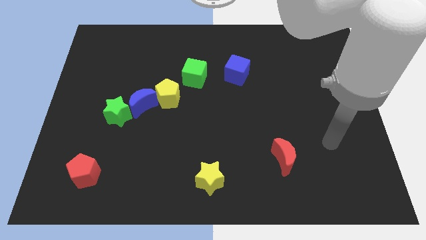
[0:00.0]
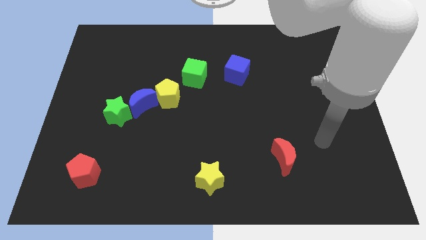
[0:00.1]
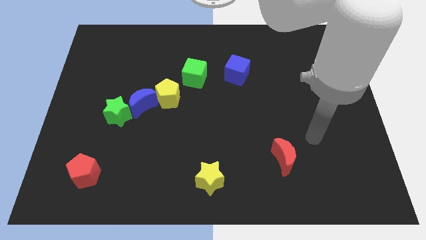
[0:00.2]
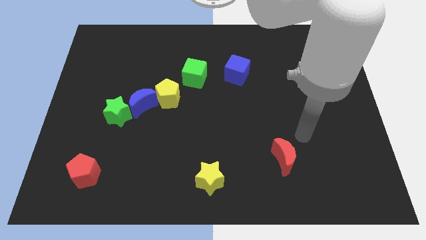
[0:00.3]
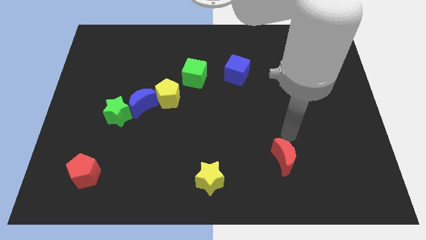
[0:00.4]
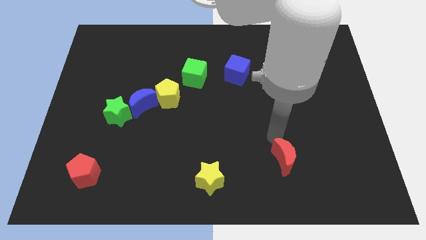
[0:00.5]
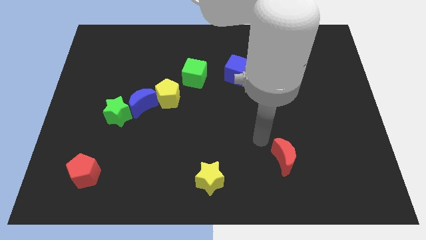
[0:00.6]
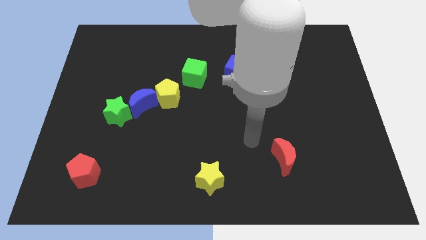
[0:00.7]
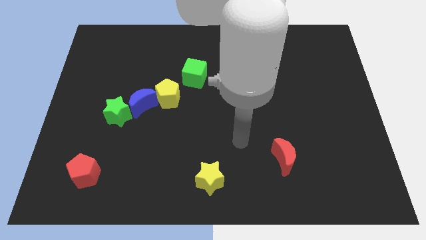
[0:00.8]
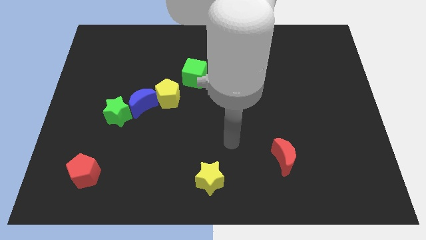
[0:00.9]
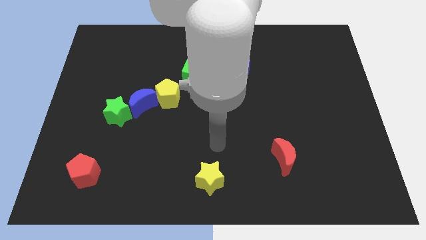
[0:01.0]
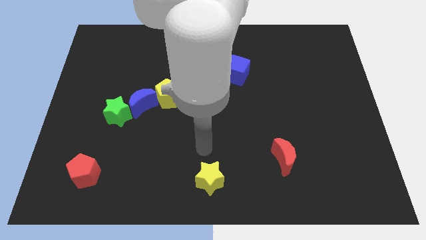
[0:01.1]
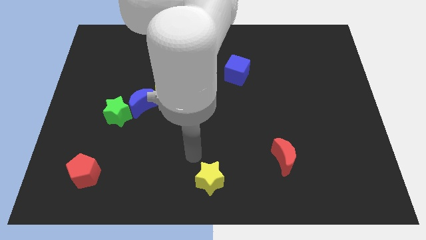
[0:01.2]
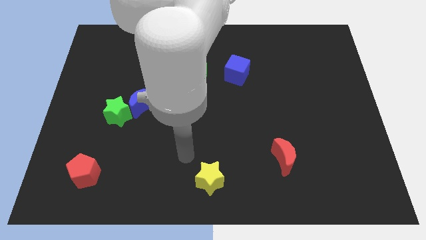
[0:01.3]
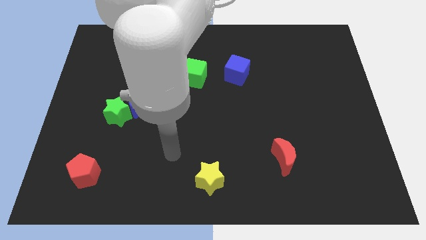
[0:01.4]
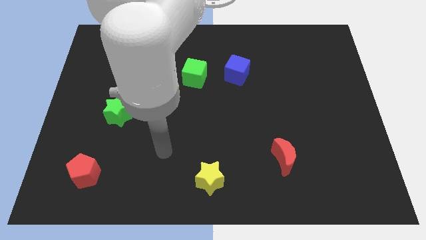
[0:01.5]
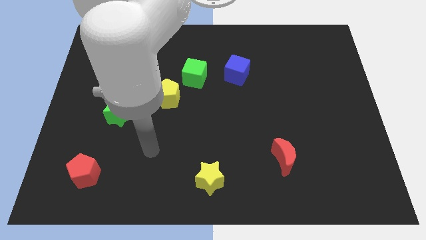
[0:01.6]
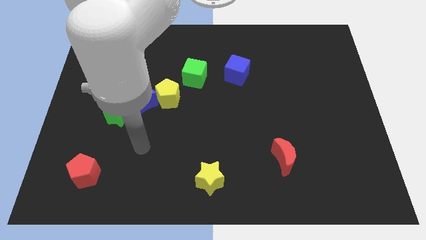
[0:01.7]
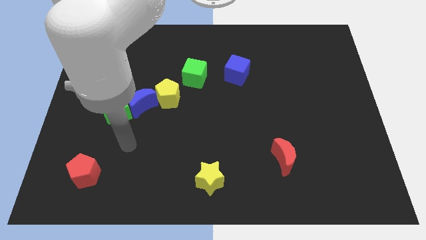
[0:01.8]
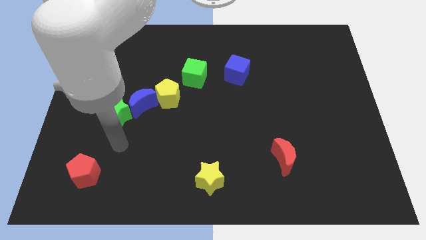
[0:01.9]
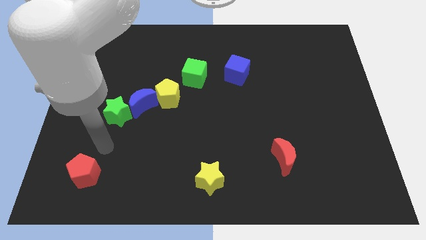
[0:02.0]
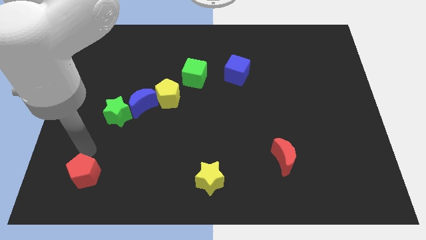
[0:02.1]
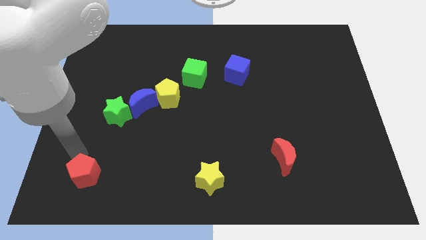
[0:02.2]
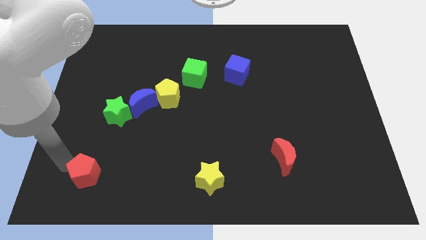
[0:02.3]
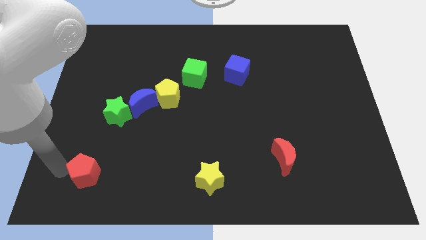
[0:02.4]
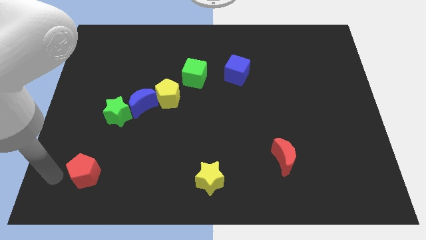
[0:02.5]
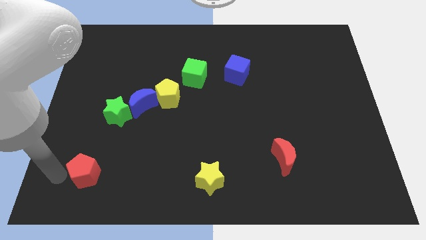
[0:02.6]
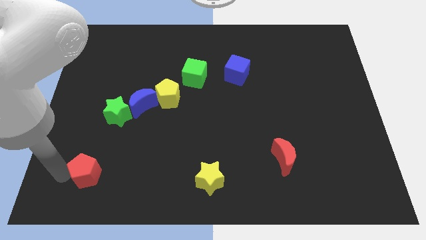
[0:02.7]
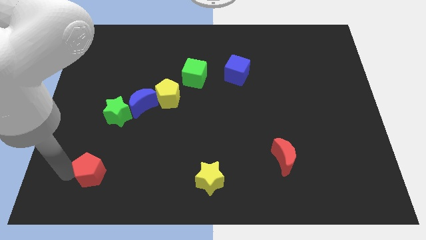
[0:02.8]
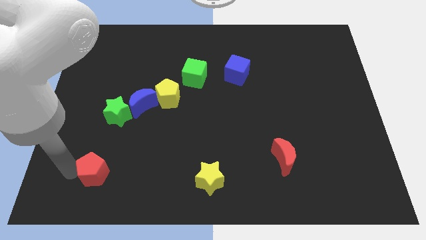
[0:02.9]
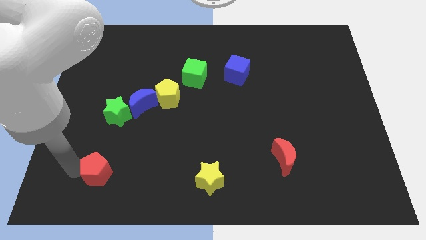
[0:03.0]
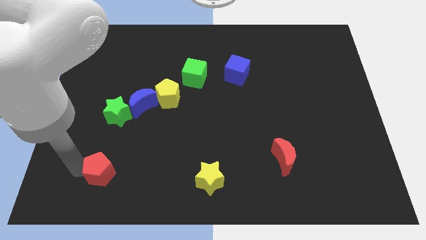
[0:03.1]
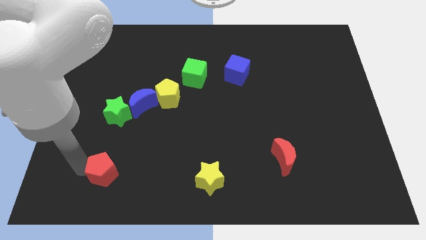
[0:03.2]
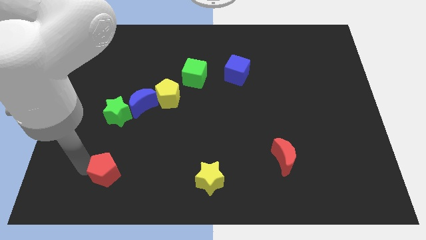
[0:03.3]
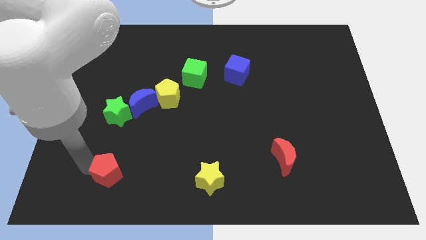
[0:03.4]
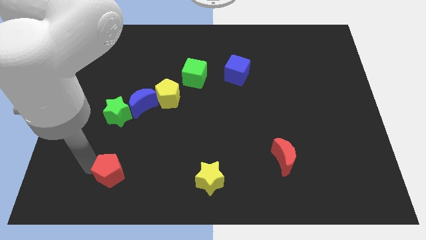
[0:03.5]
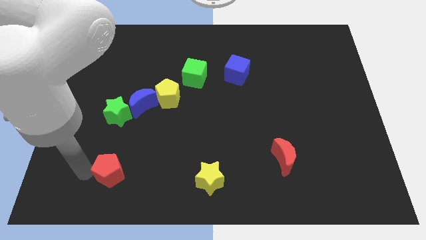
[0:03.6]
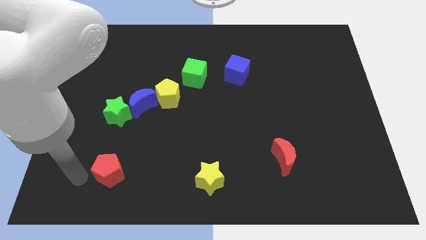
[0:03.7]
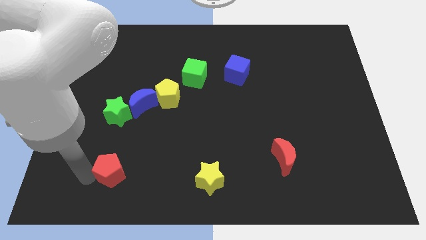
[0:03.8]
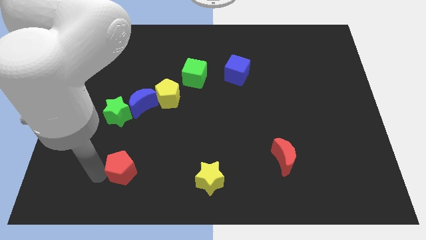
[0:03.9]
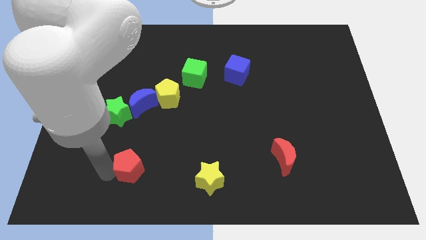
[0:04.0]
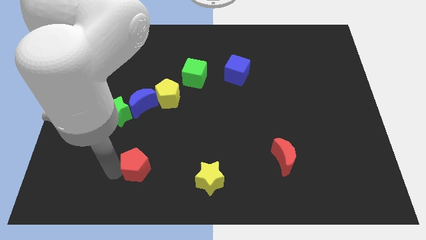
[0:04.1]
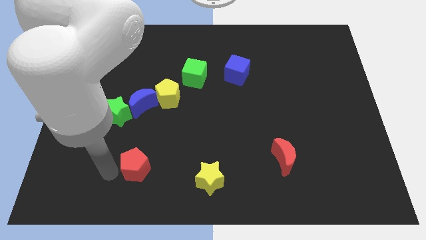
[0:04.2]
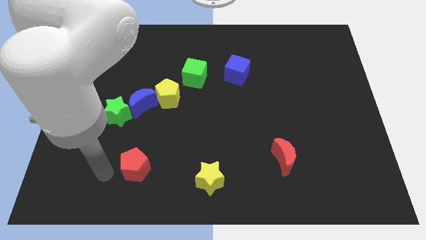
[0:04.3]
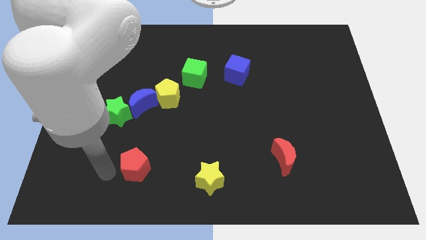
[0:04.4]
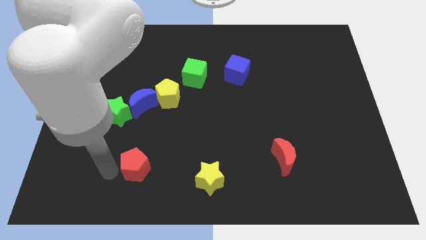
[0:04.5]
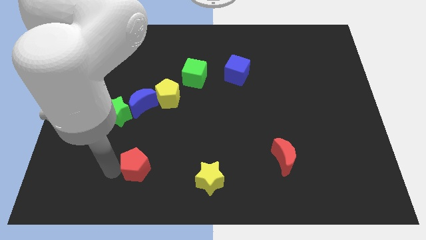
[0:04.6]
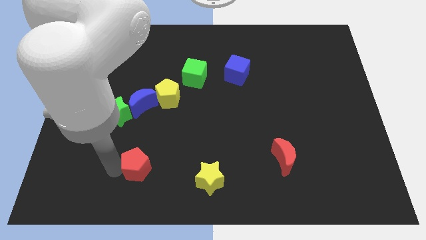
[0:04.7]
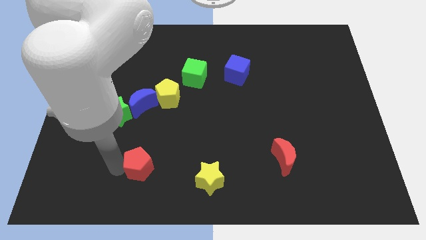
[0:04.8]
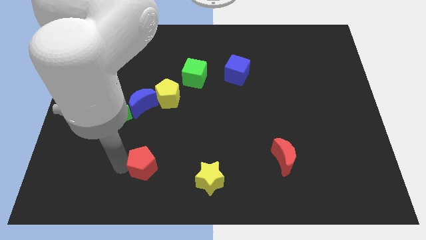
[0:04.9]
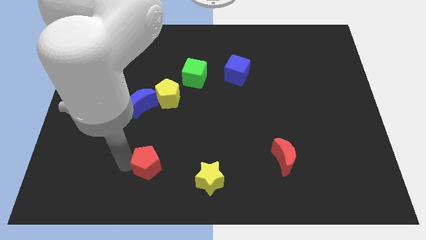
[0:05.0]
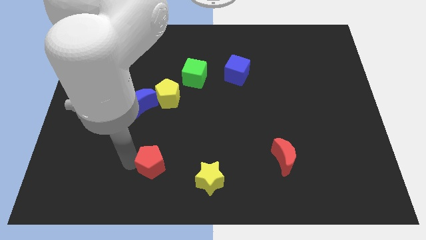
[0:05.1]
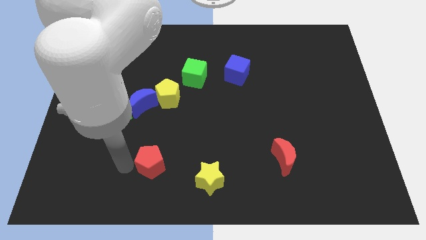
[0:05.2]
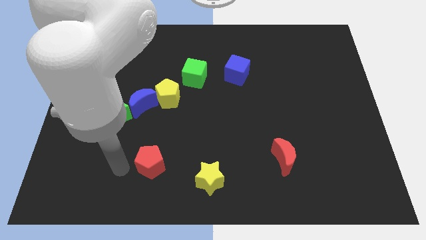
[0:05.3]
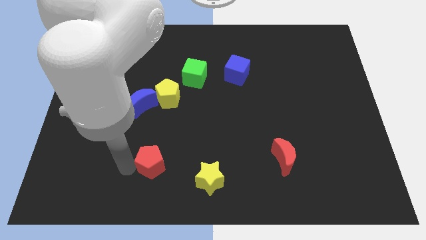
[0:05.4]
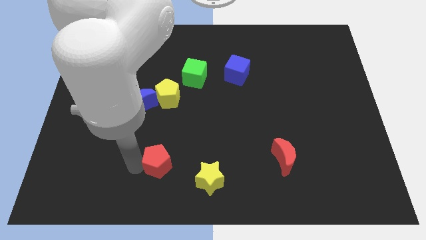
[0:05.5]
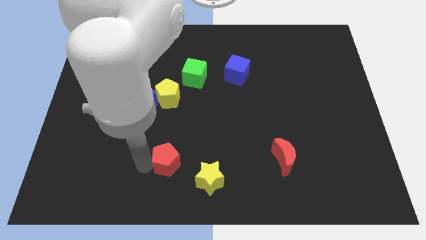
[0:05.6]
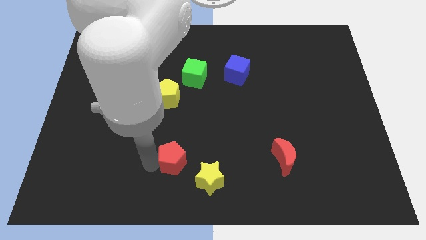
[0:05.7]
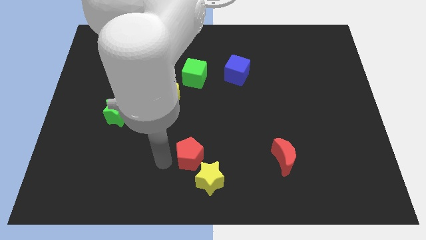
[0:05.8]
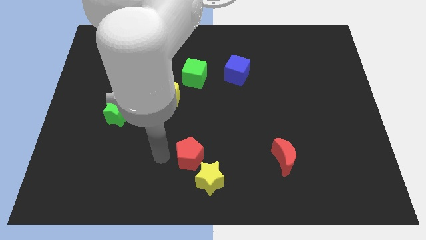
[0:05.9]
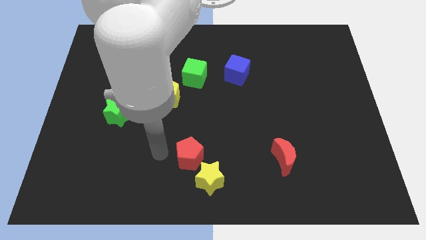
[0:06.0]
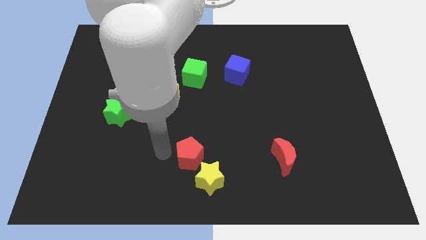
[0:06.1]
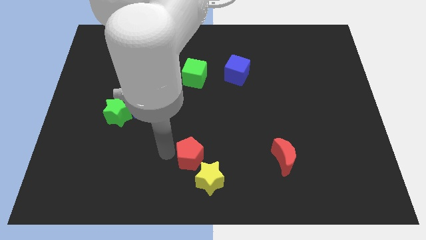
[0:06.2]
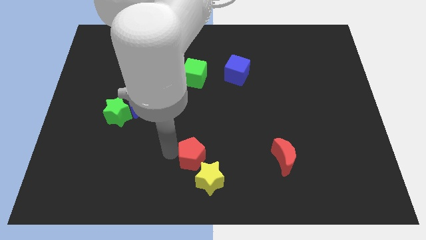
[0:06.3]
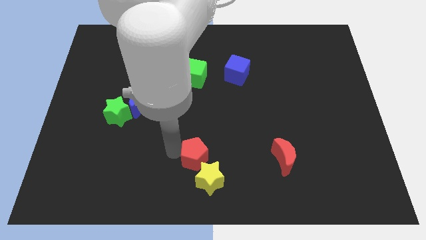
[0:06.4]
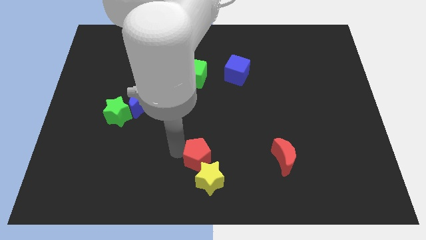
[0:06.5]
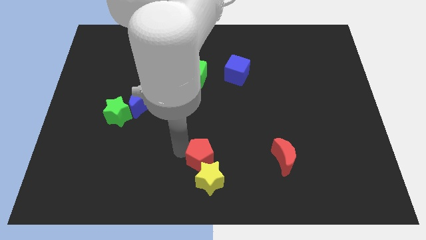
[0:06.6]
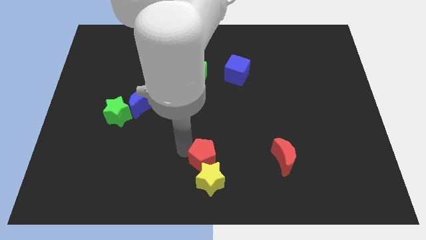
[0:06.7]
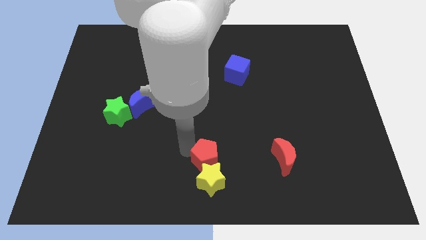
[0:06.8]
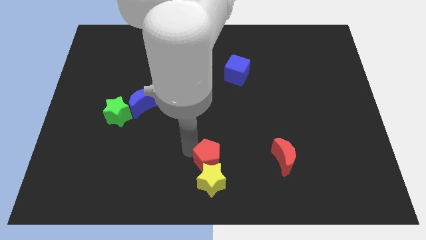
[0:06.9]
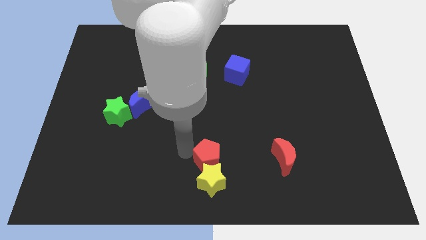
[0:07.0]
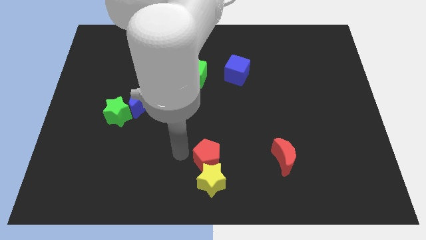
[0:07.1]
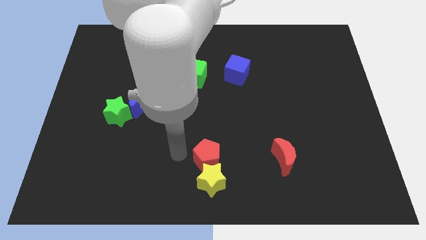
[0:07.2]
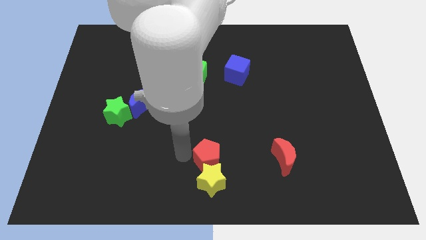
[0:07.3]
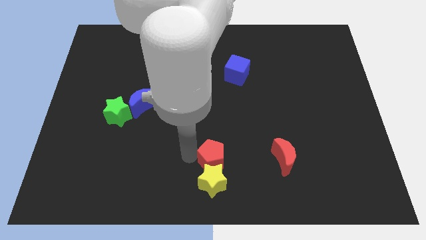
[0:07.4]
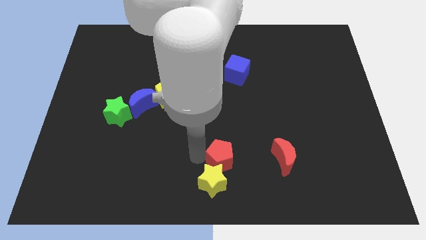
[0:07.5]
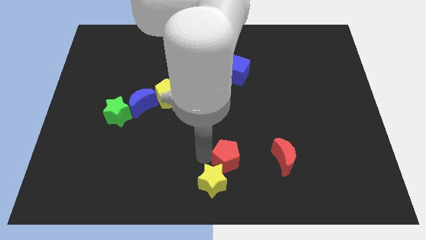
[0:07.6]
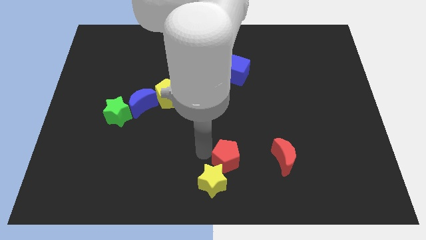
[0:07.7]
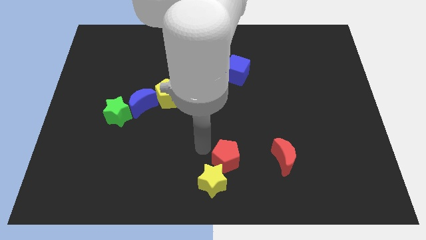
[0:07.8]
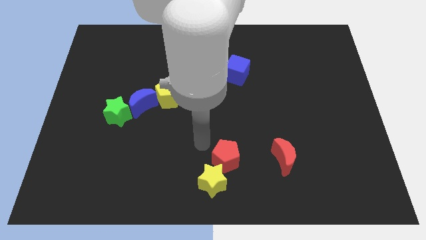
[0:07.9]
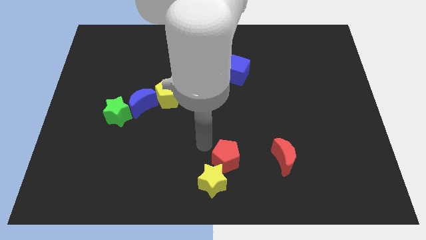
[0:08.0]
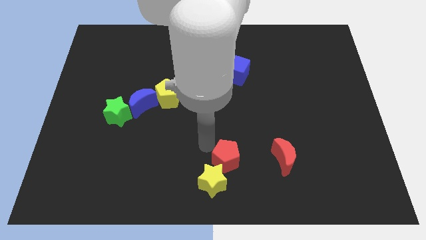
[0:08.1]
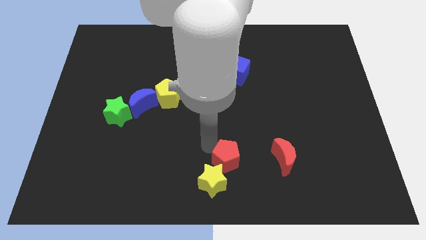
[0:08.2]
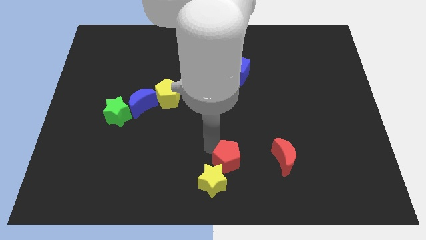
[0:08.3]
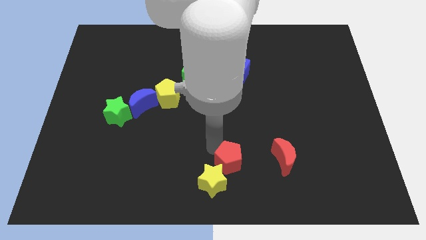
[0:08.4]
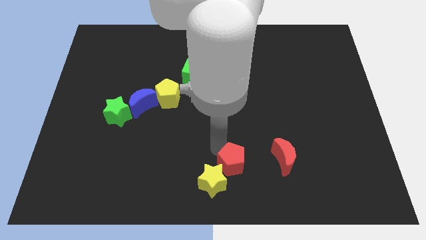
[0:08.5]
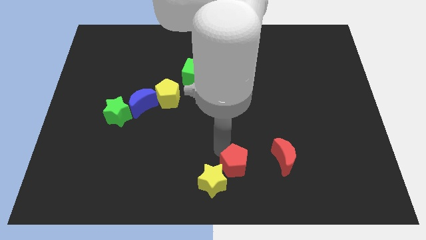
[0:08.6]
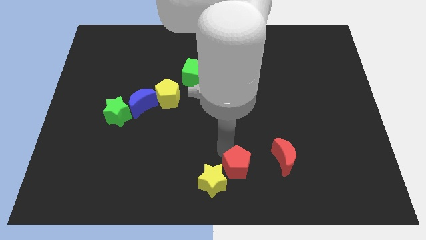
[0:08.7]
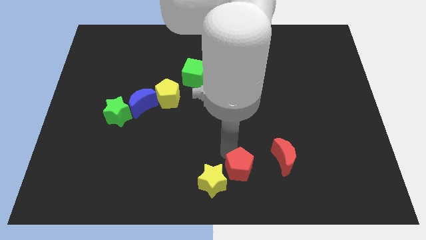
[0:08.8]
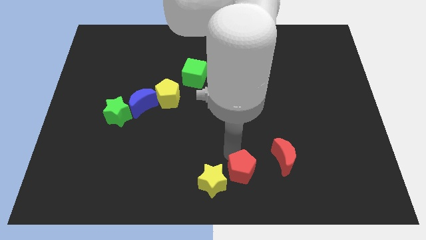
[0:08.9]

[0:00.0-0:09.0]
slide the red pentagon diagonally down and to the left of the red moon
